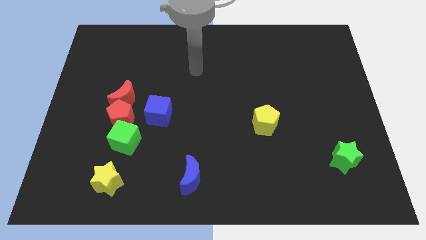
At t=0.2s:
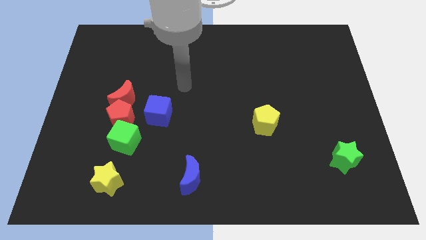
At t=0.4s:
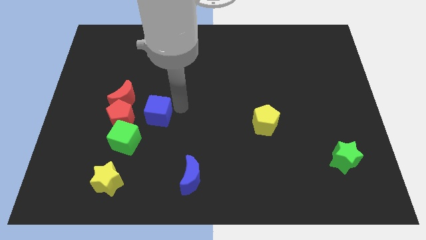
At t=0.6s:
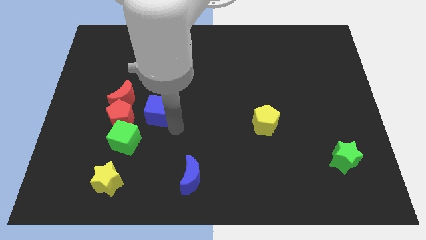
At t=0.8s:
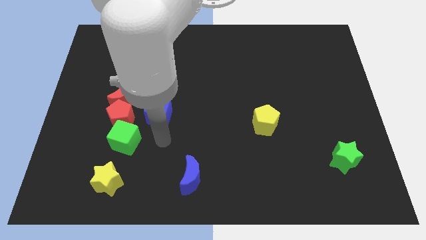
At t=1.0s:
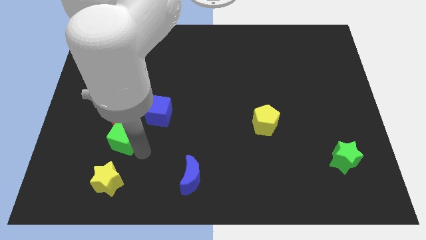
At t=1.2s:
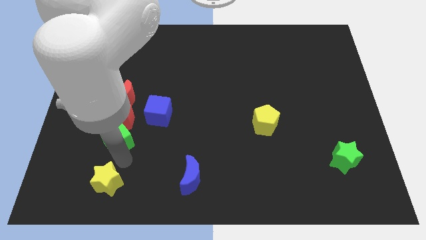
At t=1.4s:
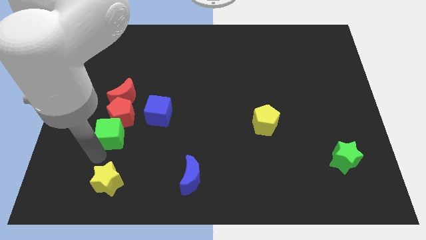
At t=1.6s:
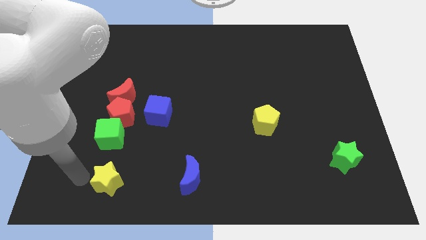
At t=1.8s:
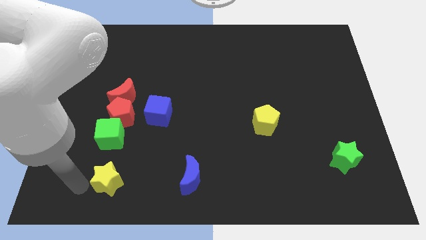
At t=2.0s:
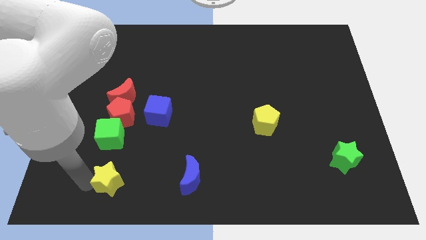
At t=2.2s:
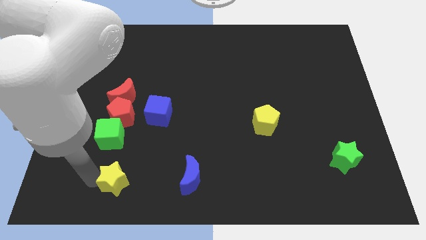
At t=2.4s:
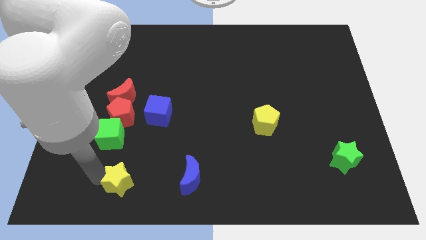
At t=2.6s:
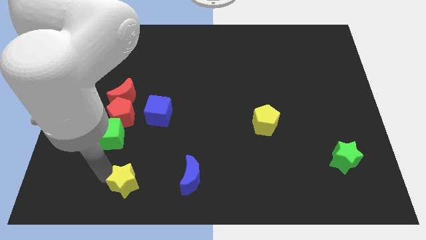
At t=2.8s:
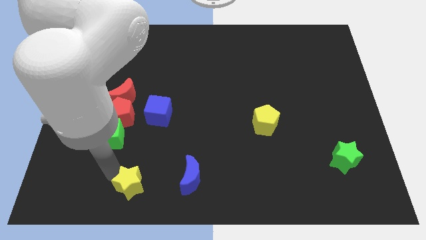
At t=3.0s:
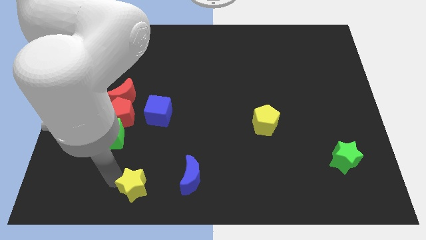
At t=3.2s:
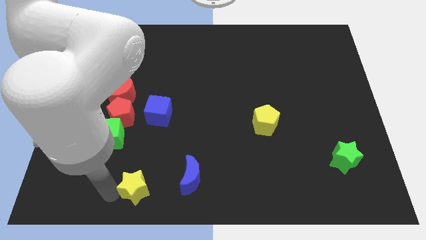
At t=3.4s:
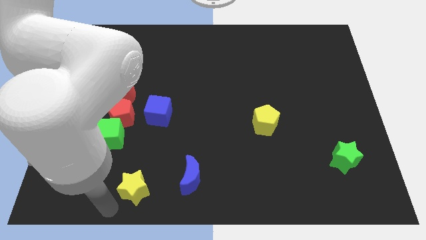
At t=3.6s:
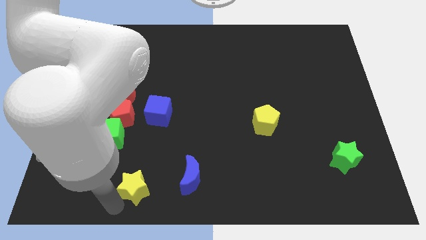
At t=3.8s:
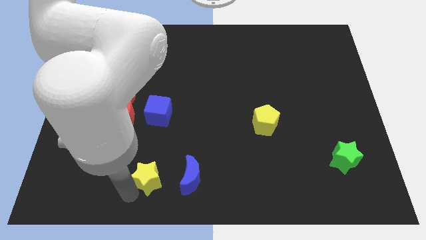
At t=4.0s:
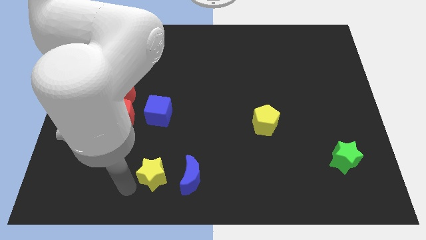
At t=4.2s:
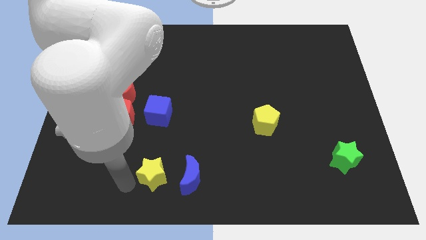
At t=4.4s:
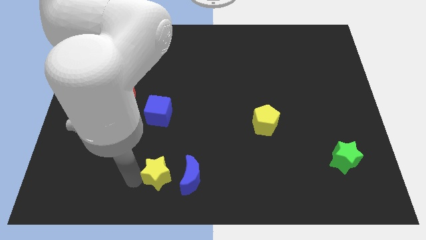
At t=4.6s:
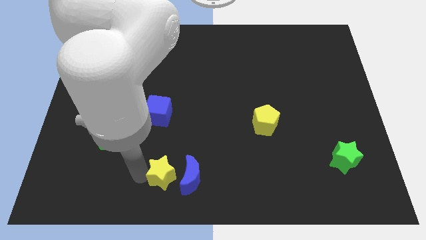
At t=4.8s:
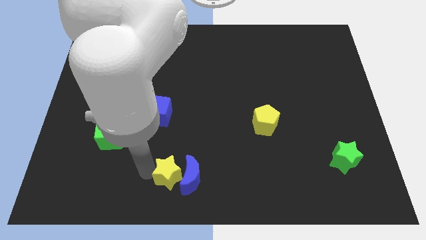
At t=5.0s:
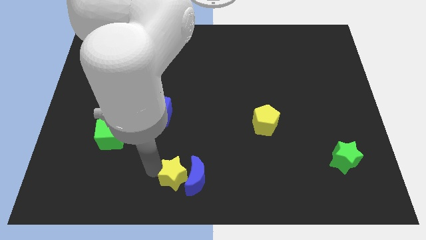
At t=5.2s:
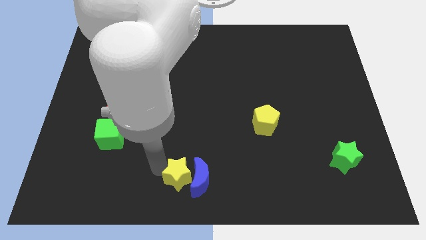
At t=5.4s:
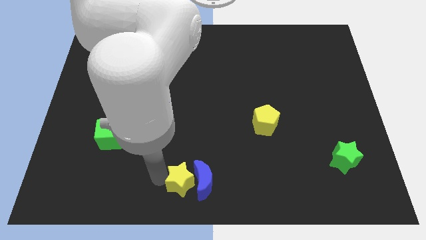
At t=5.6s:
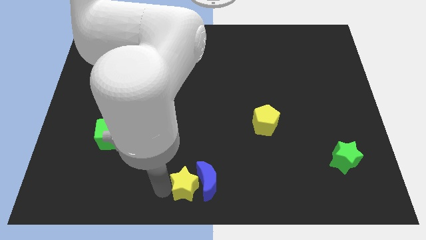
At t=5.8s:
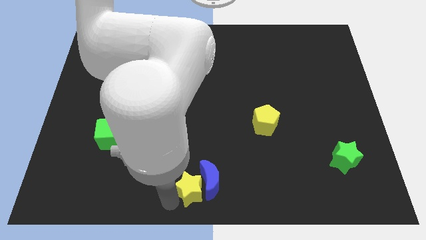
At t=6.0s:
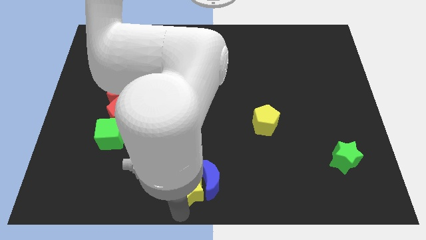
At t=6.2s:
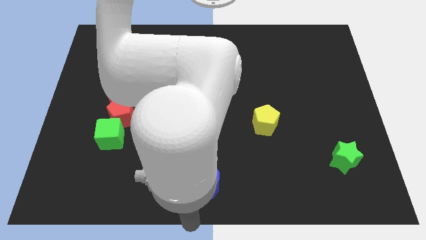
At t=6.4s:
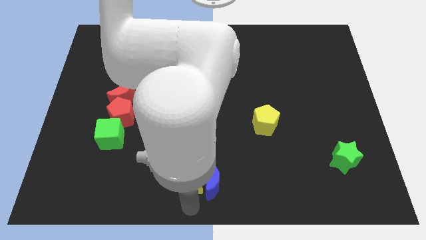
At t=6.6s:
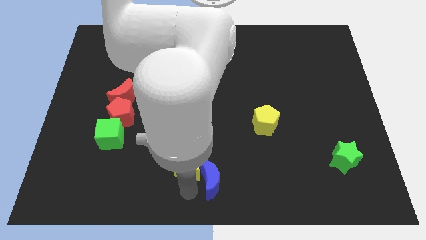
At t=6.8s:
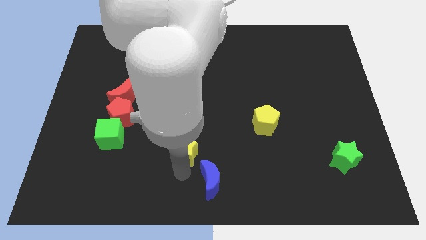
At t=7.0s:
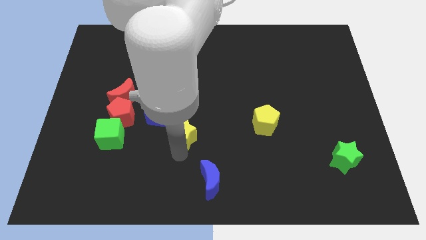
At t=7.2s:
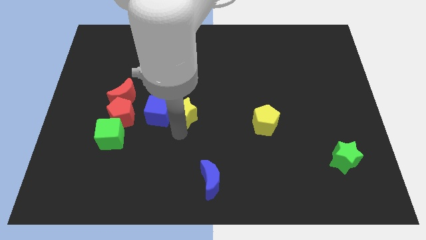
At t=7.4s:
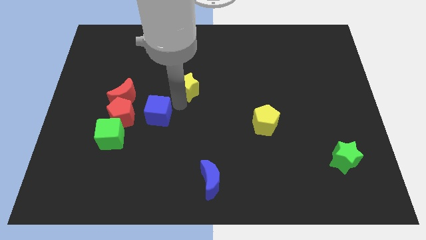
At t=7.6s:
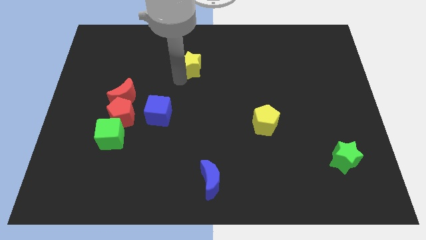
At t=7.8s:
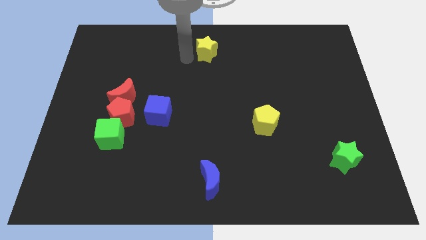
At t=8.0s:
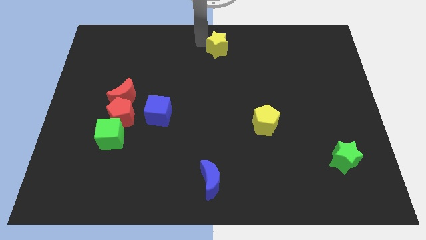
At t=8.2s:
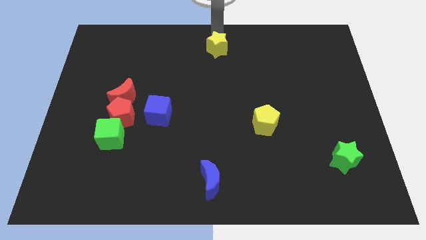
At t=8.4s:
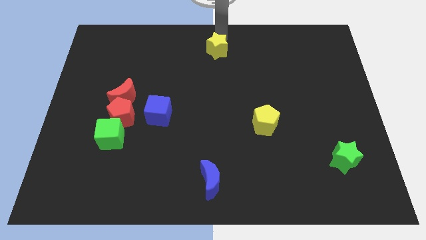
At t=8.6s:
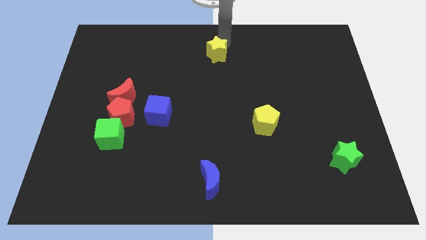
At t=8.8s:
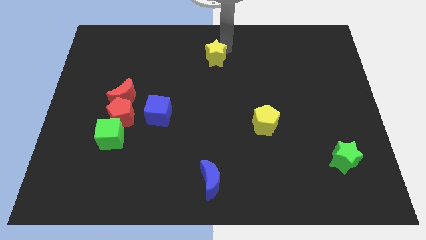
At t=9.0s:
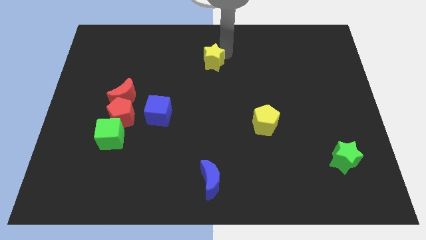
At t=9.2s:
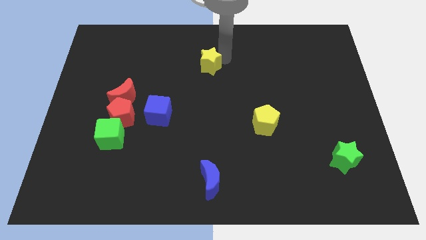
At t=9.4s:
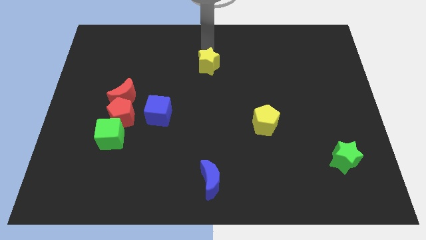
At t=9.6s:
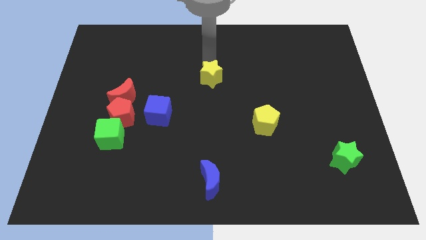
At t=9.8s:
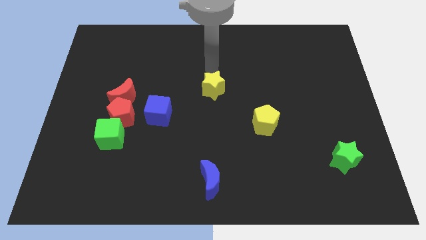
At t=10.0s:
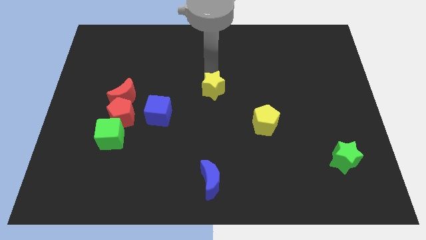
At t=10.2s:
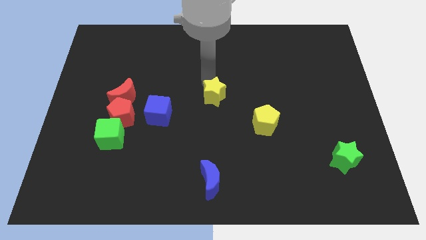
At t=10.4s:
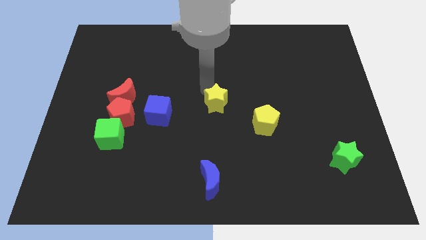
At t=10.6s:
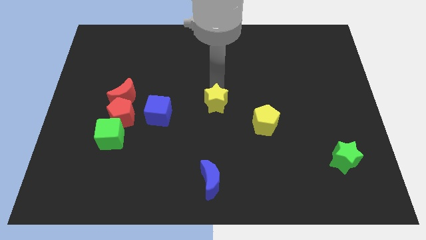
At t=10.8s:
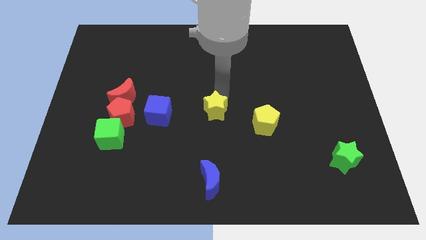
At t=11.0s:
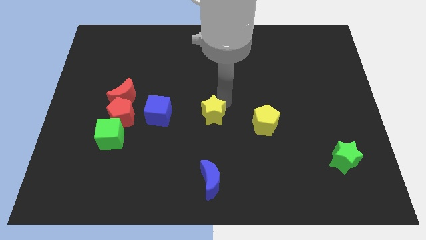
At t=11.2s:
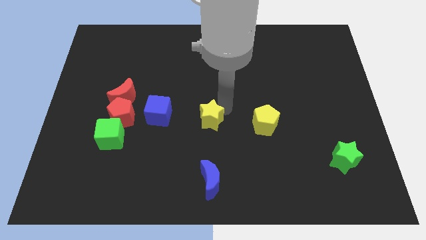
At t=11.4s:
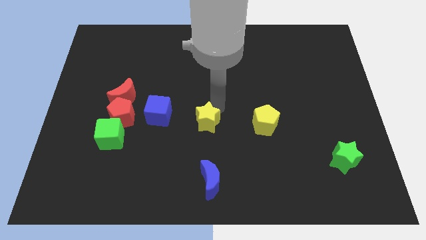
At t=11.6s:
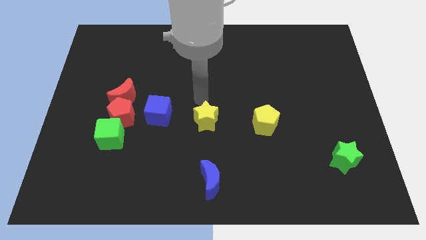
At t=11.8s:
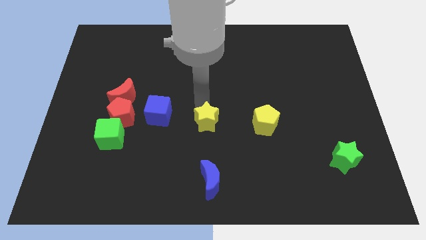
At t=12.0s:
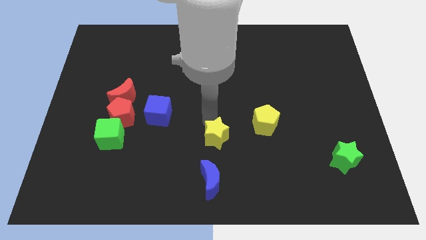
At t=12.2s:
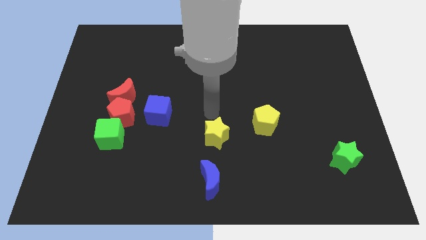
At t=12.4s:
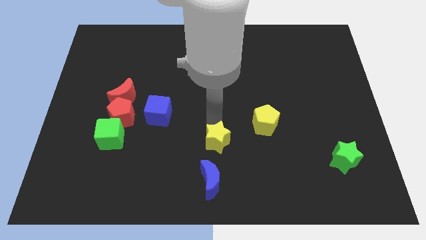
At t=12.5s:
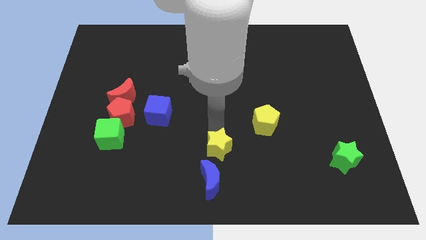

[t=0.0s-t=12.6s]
slide the yellow star right

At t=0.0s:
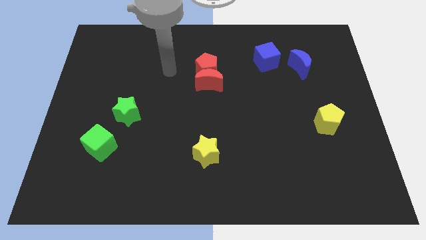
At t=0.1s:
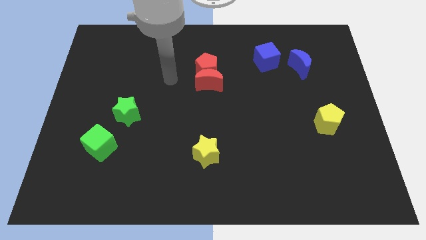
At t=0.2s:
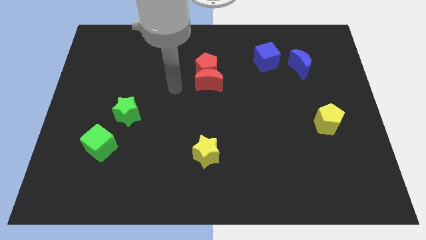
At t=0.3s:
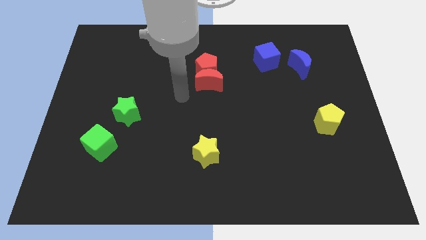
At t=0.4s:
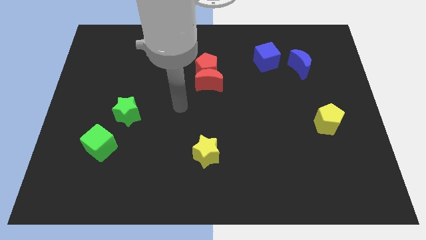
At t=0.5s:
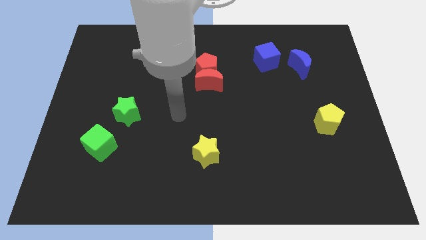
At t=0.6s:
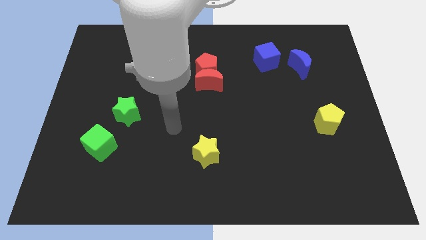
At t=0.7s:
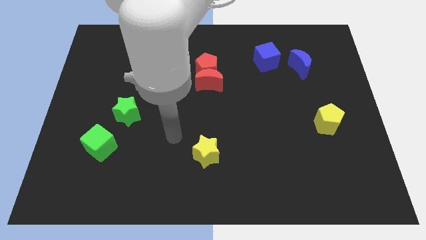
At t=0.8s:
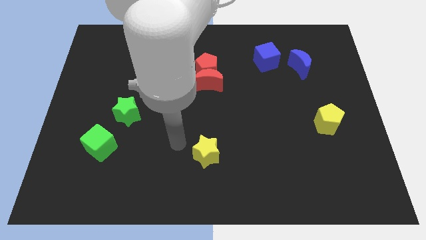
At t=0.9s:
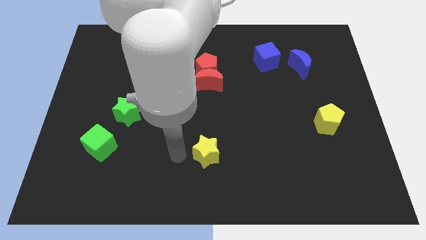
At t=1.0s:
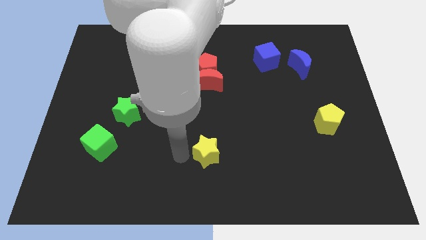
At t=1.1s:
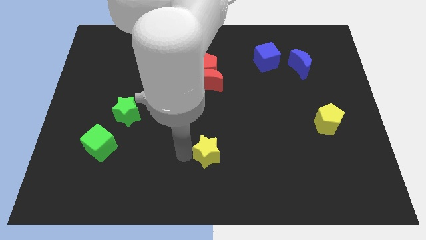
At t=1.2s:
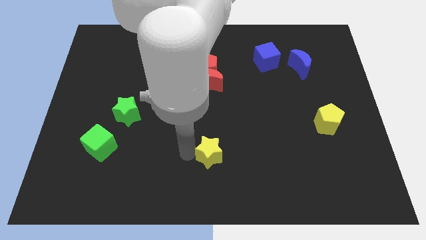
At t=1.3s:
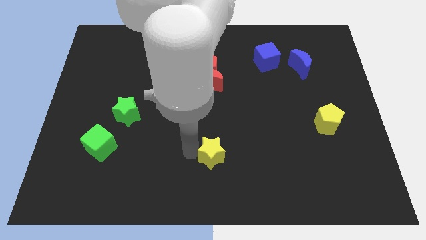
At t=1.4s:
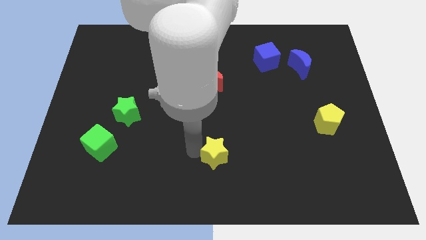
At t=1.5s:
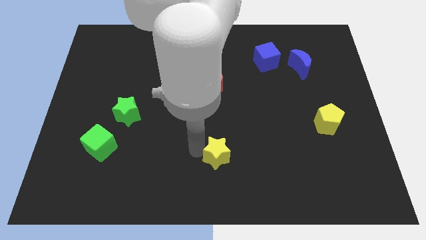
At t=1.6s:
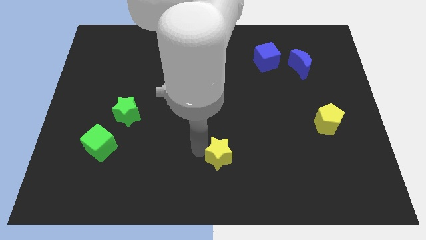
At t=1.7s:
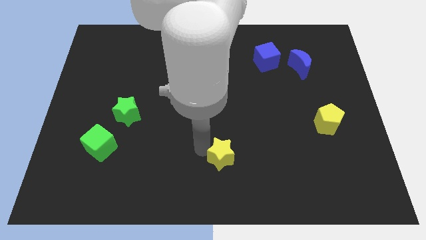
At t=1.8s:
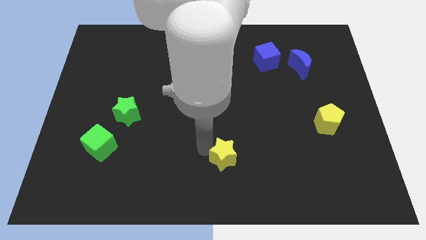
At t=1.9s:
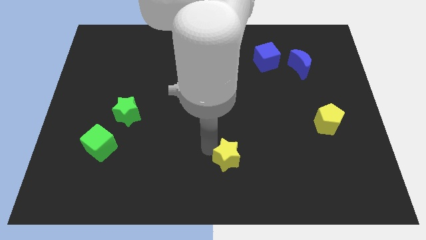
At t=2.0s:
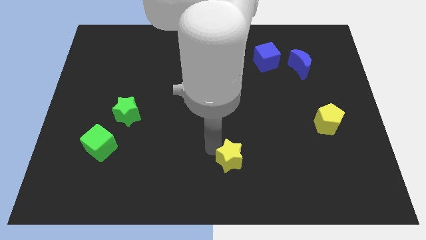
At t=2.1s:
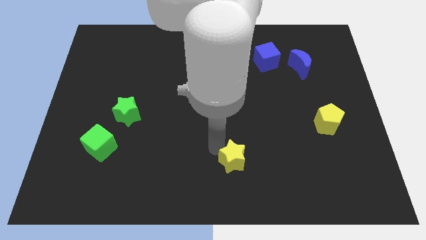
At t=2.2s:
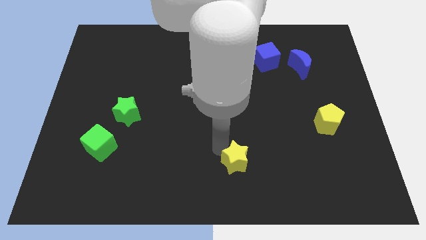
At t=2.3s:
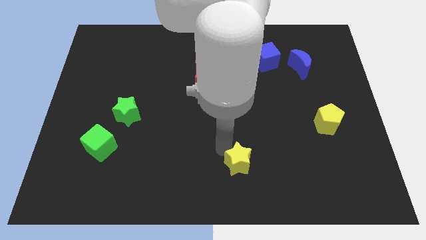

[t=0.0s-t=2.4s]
push the yellow star to the right a bit
